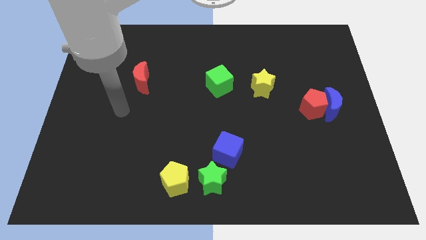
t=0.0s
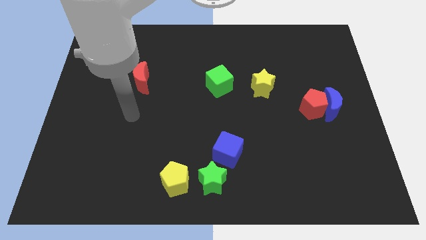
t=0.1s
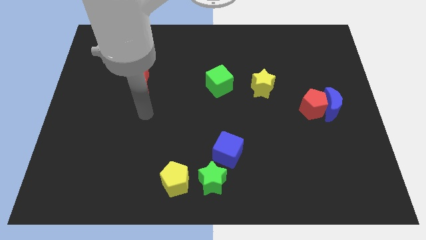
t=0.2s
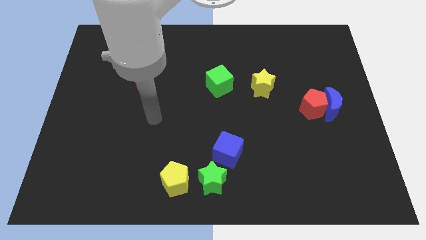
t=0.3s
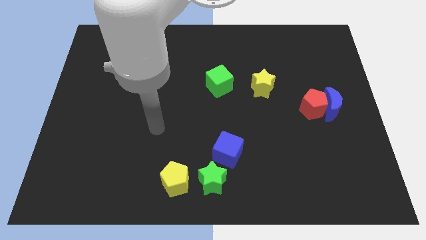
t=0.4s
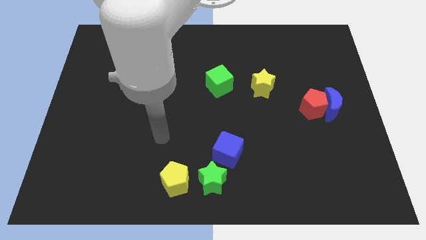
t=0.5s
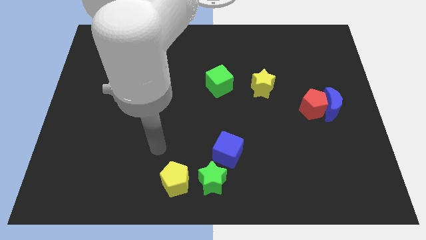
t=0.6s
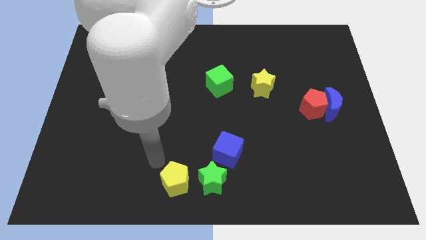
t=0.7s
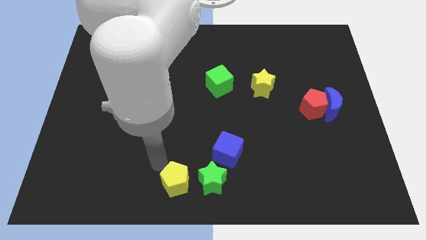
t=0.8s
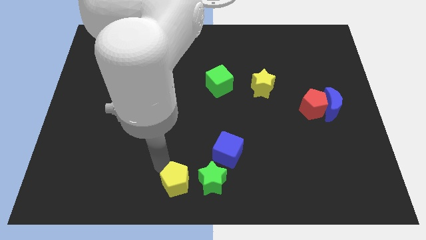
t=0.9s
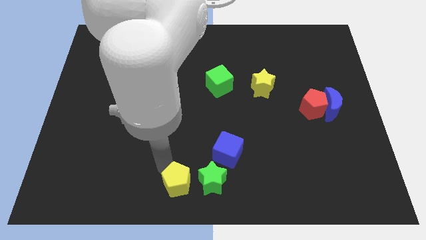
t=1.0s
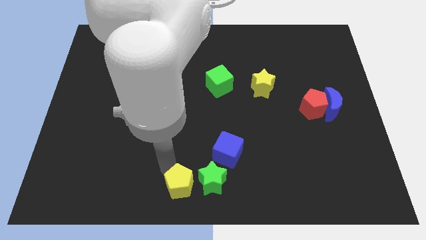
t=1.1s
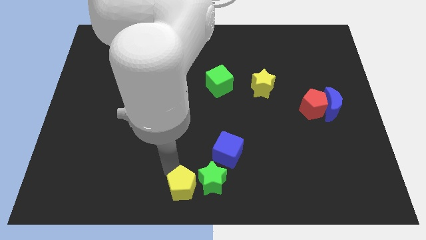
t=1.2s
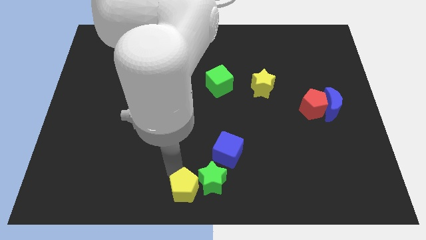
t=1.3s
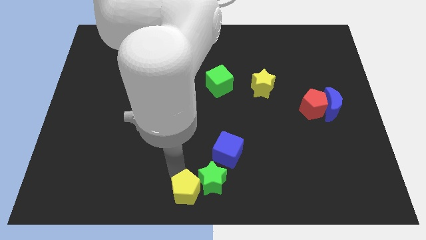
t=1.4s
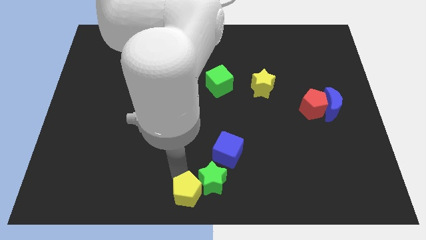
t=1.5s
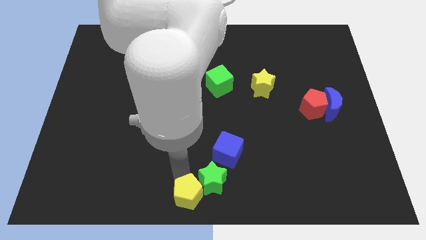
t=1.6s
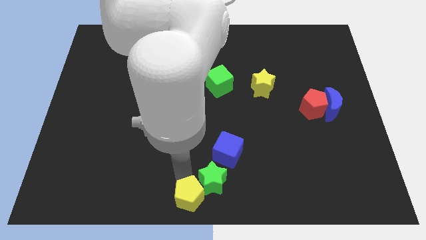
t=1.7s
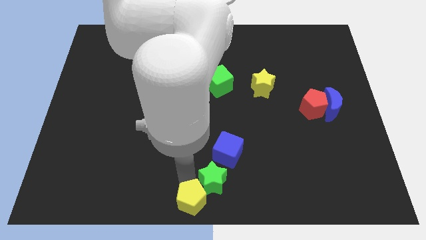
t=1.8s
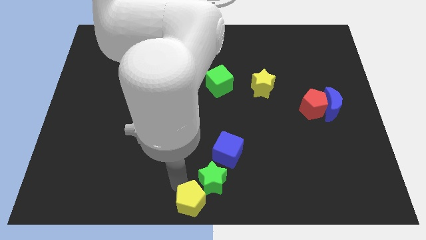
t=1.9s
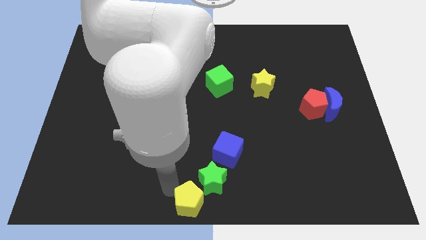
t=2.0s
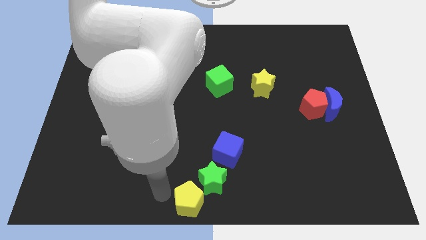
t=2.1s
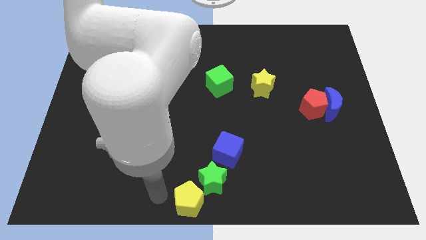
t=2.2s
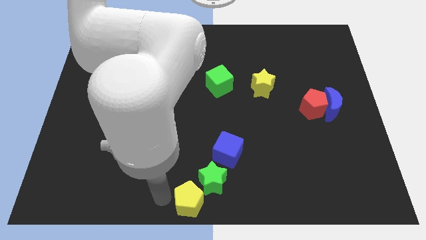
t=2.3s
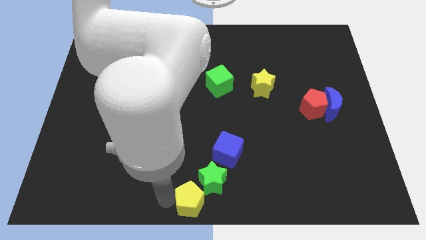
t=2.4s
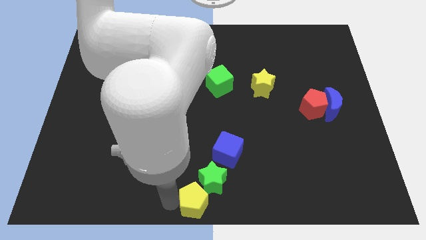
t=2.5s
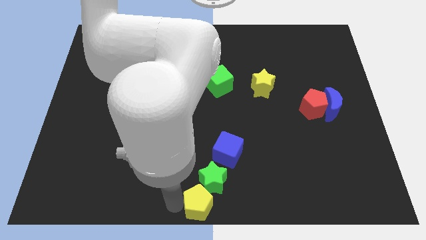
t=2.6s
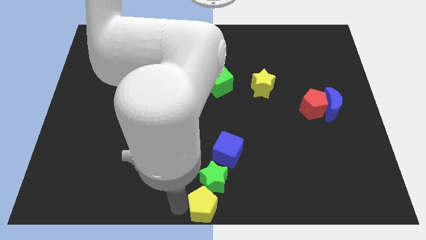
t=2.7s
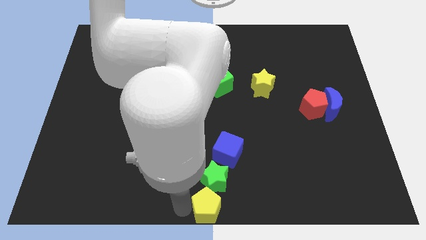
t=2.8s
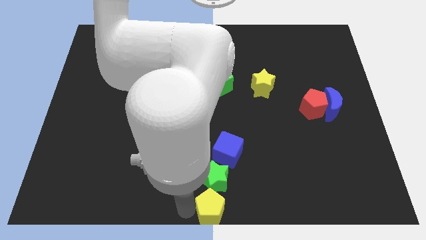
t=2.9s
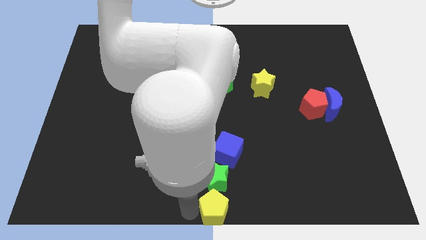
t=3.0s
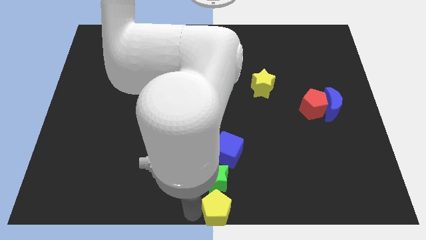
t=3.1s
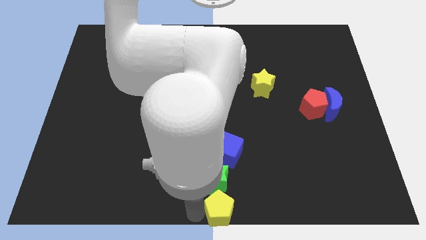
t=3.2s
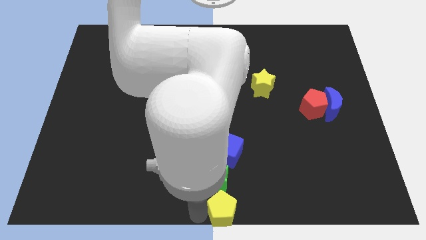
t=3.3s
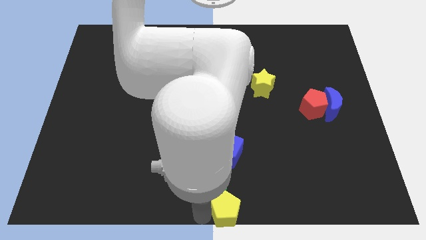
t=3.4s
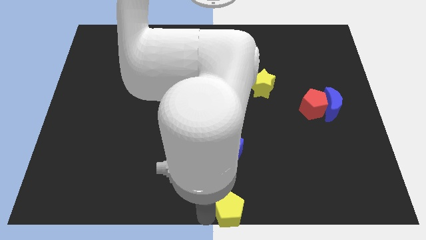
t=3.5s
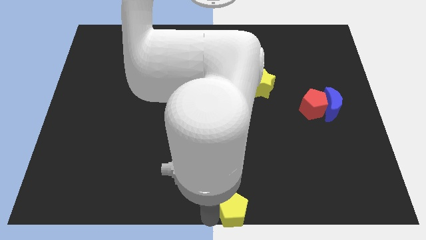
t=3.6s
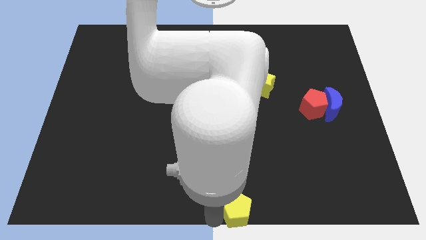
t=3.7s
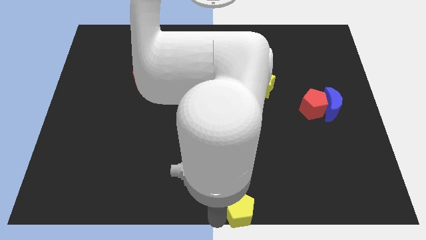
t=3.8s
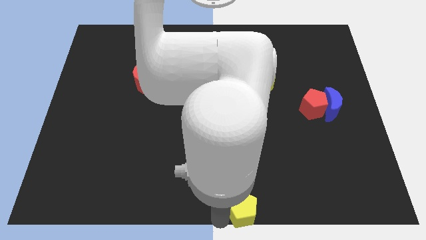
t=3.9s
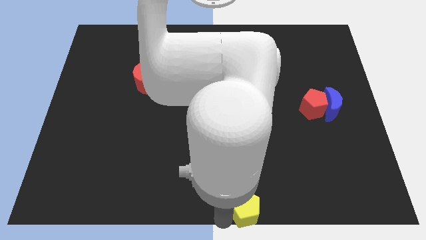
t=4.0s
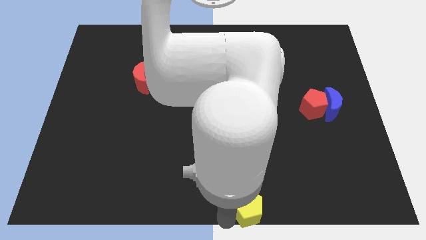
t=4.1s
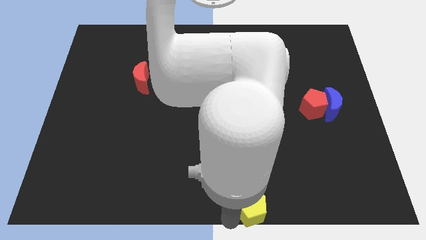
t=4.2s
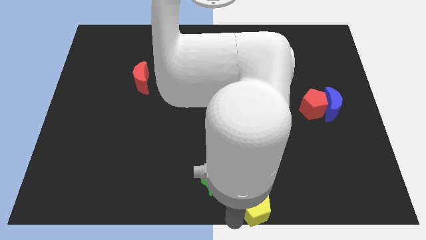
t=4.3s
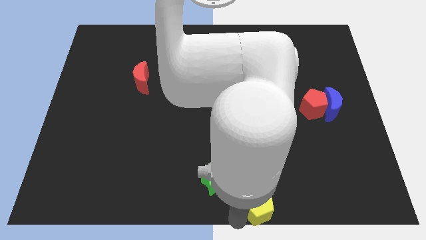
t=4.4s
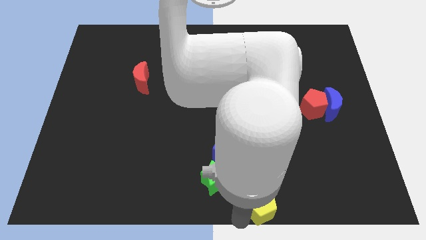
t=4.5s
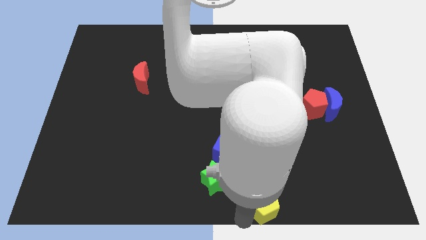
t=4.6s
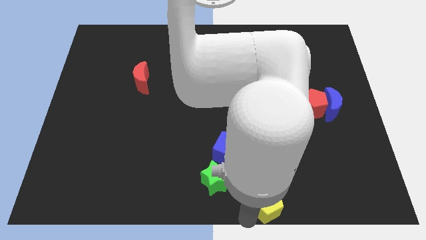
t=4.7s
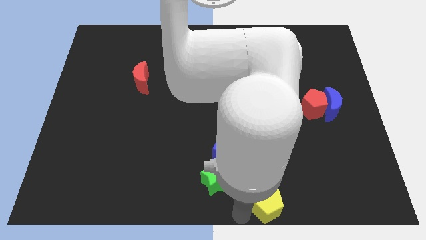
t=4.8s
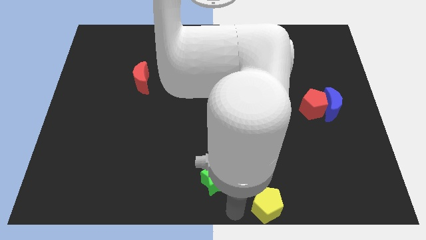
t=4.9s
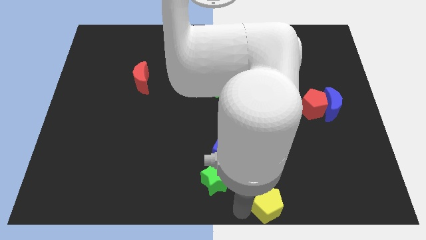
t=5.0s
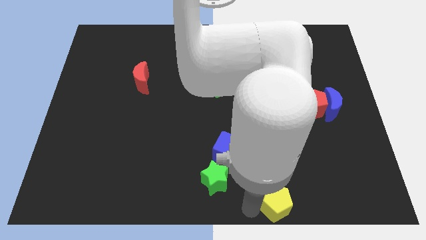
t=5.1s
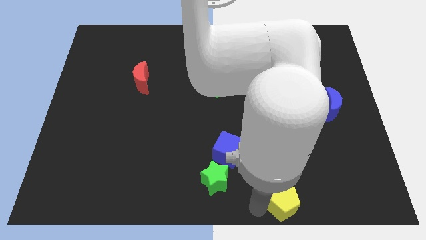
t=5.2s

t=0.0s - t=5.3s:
slide the yellow pentagon right

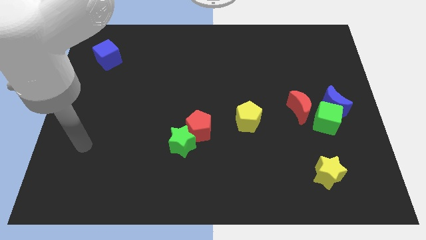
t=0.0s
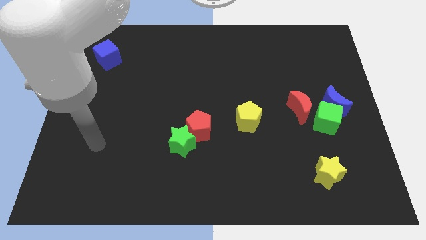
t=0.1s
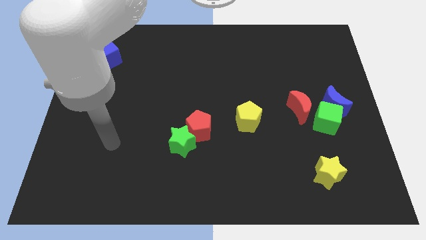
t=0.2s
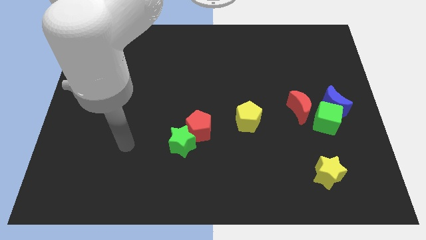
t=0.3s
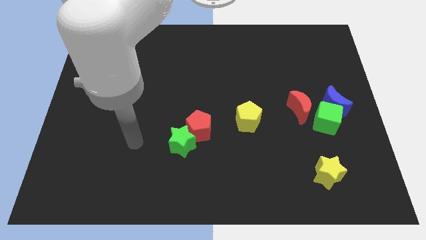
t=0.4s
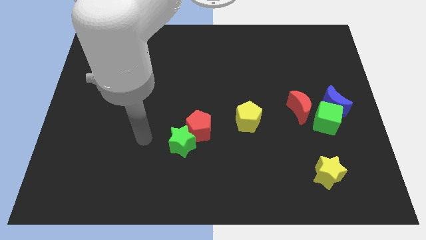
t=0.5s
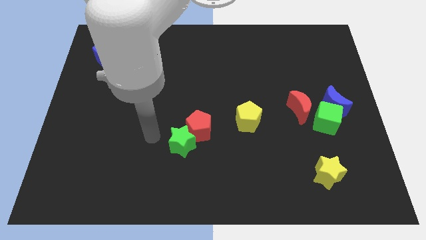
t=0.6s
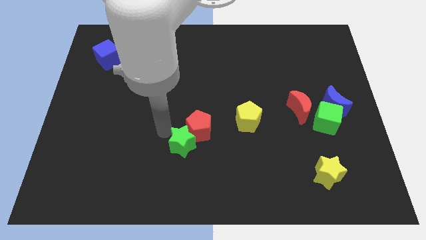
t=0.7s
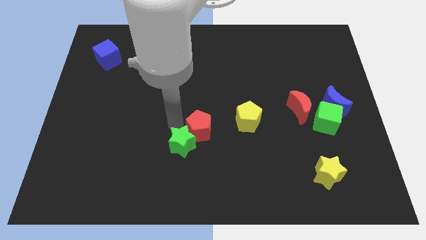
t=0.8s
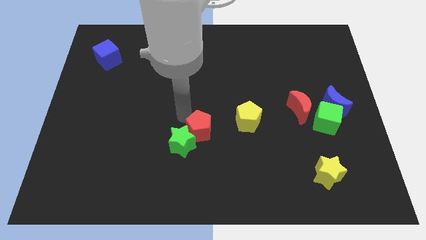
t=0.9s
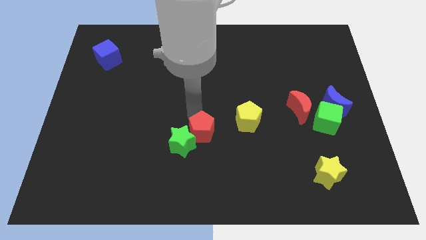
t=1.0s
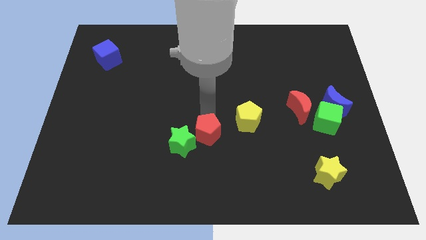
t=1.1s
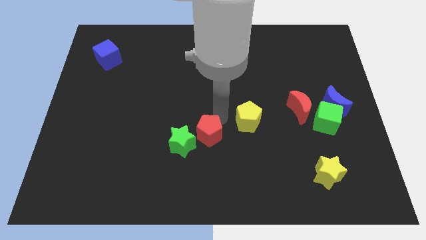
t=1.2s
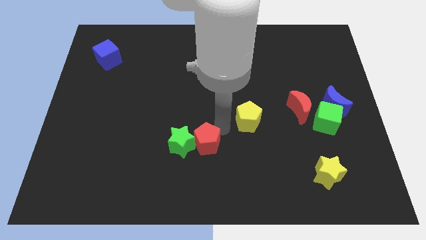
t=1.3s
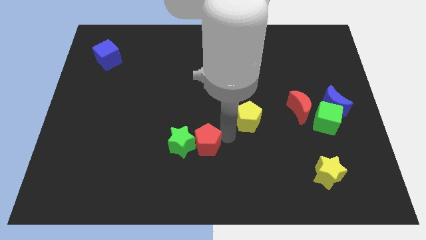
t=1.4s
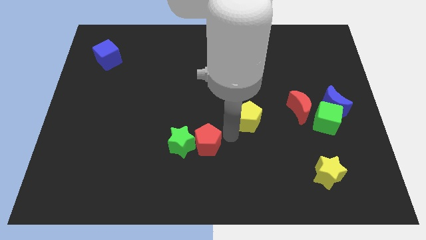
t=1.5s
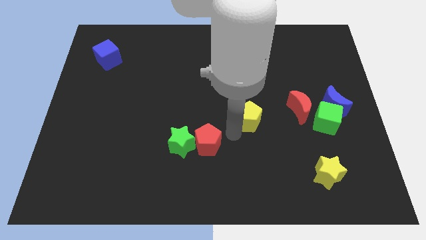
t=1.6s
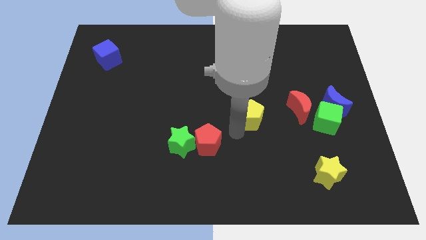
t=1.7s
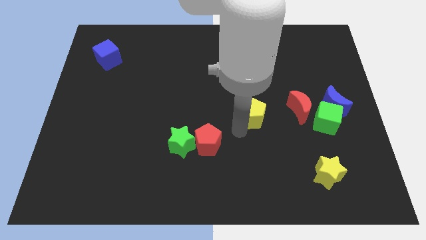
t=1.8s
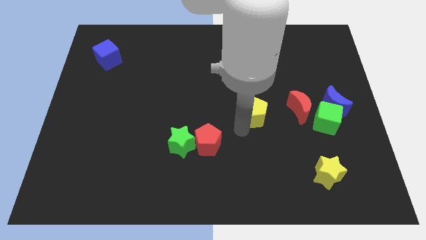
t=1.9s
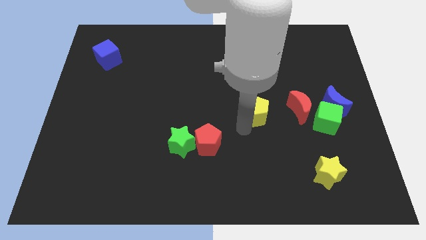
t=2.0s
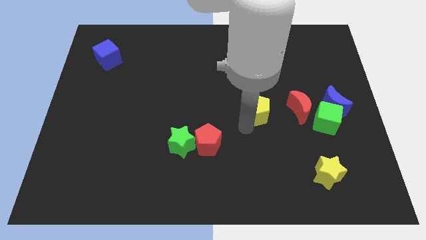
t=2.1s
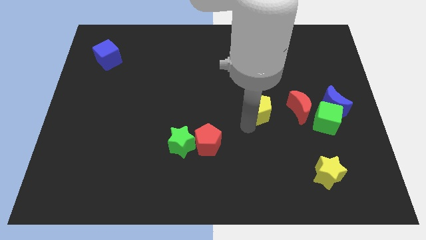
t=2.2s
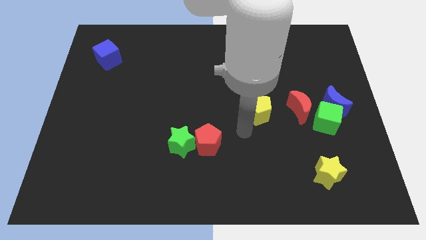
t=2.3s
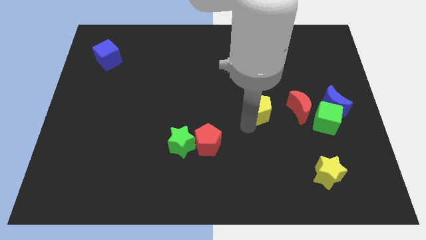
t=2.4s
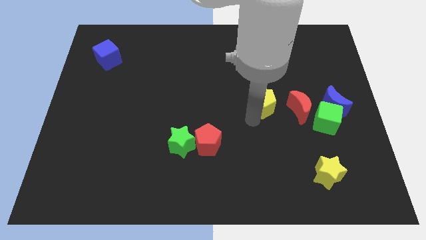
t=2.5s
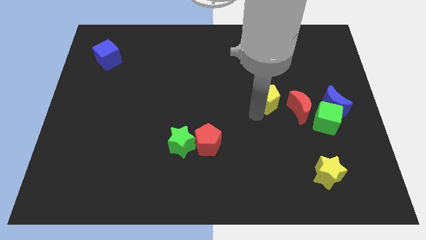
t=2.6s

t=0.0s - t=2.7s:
slightly move the yellow pentagon up and to the right

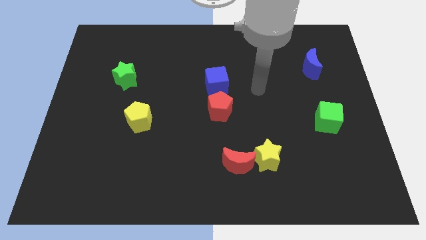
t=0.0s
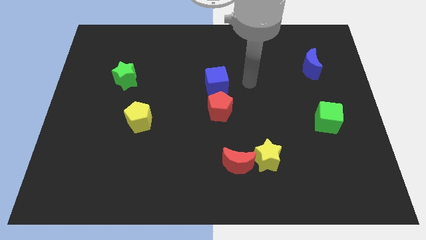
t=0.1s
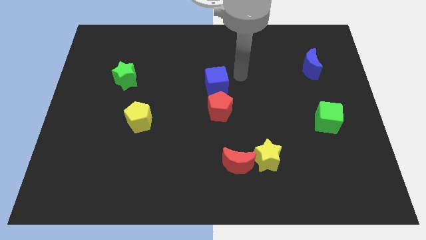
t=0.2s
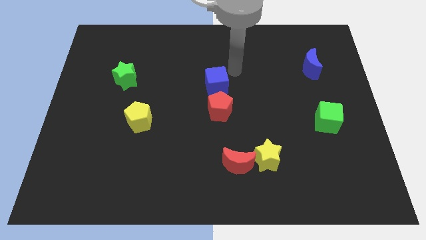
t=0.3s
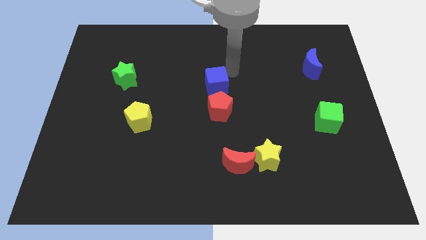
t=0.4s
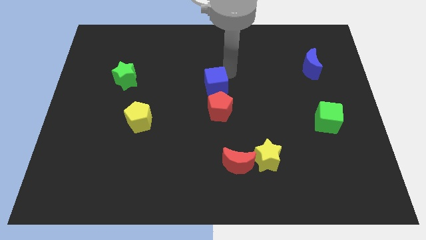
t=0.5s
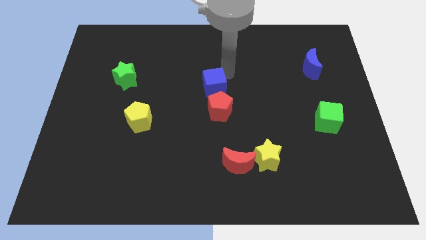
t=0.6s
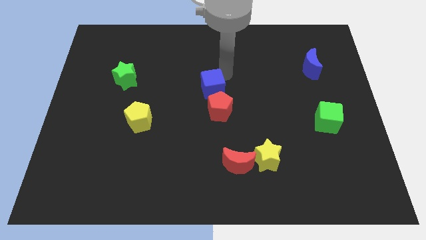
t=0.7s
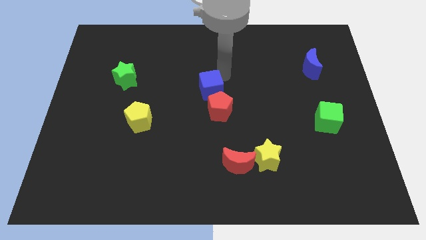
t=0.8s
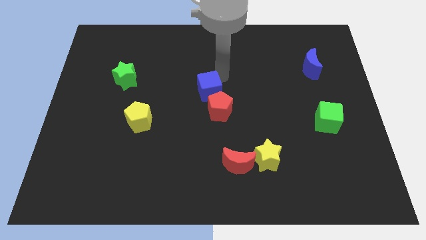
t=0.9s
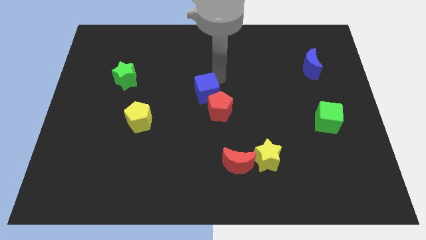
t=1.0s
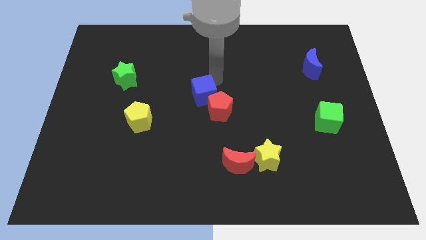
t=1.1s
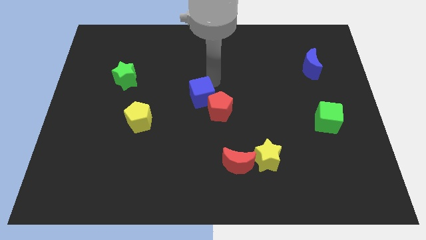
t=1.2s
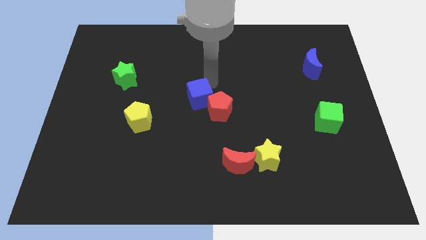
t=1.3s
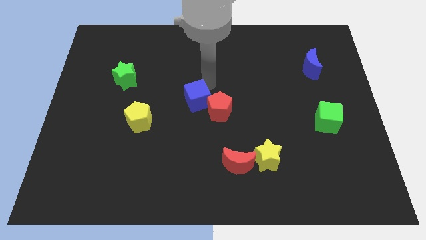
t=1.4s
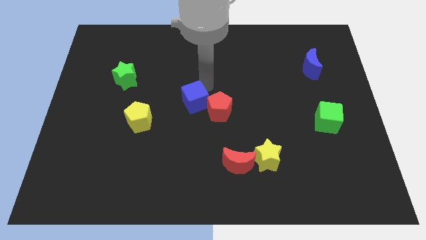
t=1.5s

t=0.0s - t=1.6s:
slightly push the blue cube diagonally down and left
